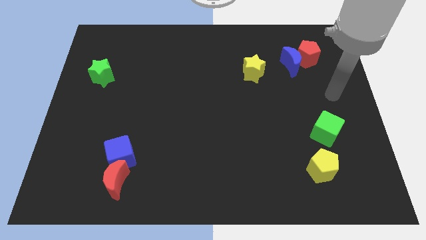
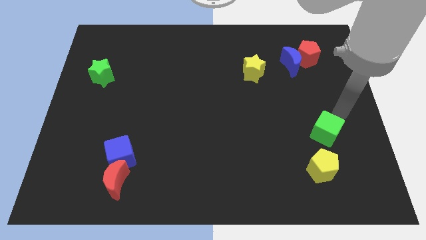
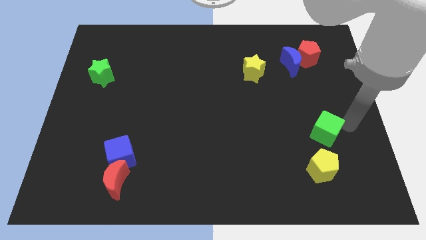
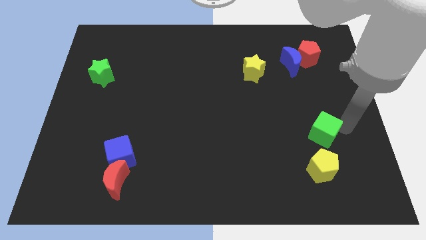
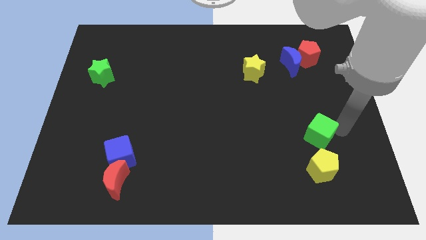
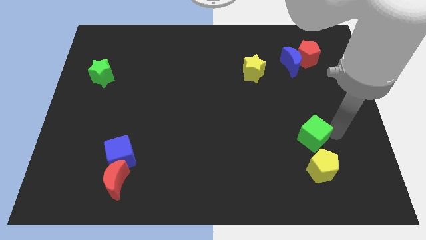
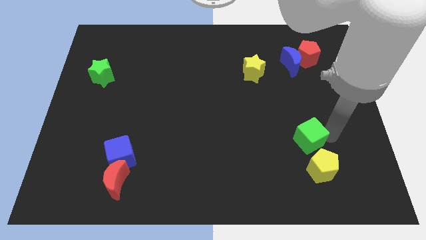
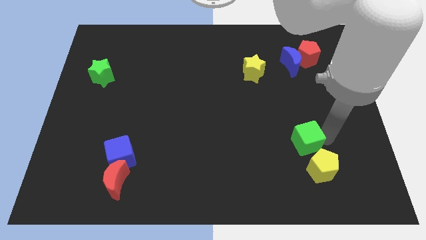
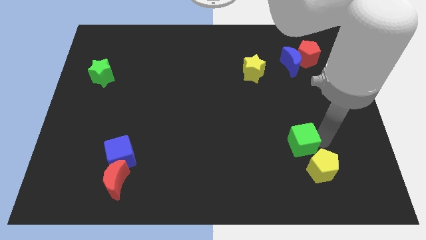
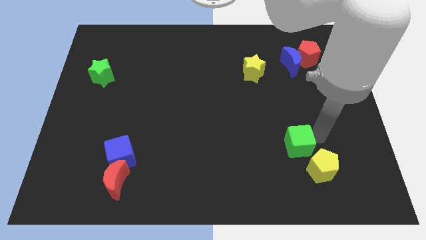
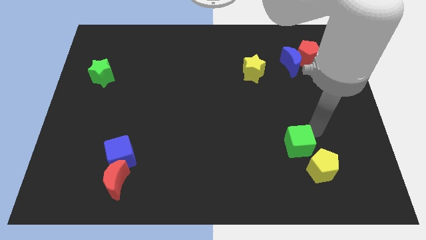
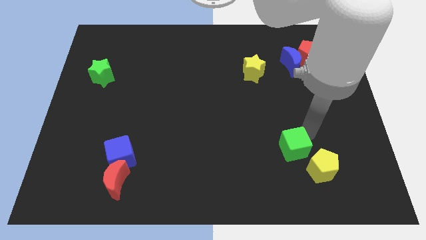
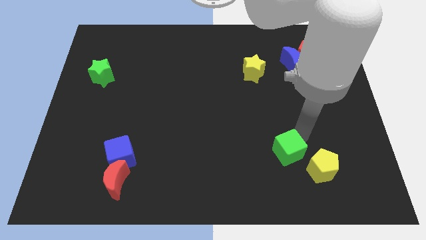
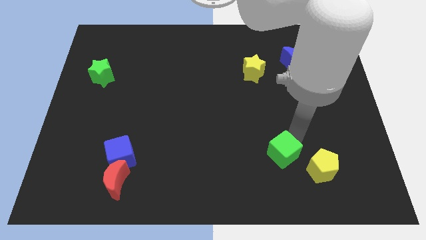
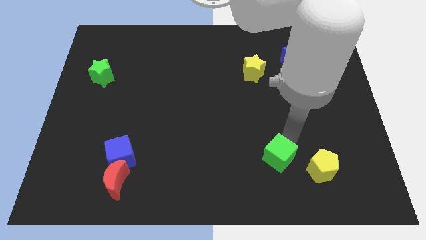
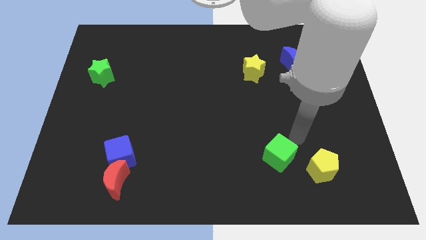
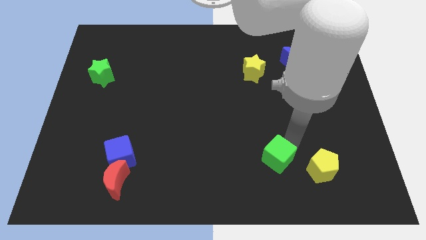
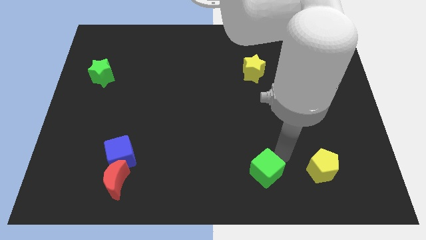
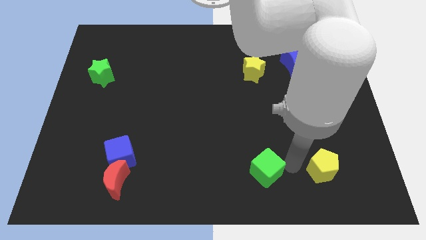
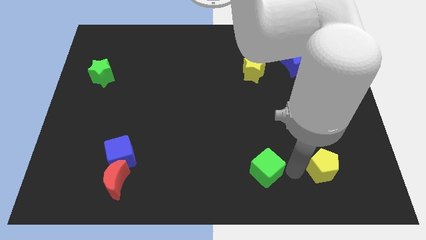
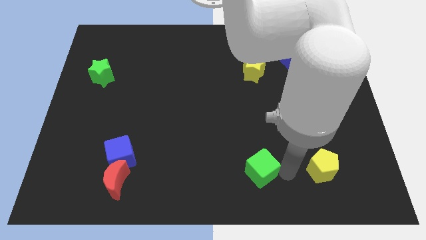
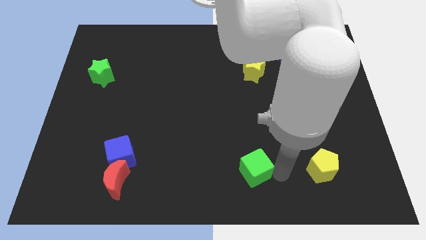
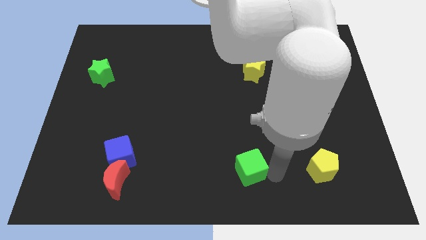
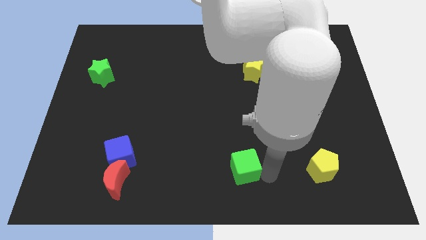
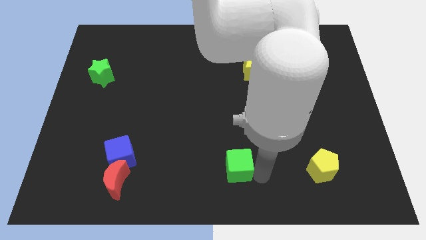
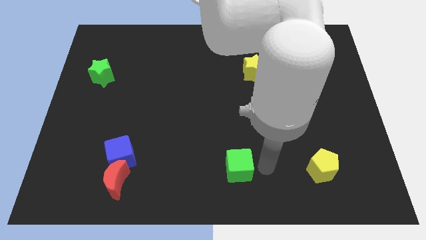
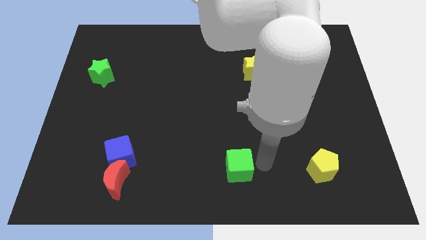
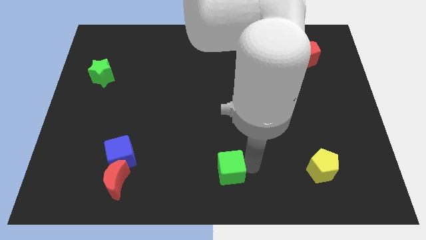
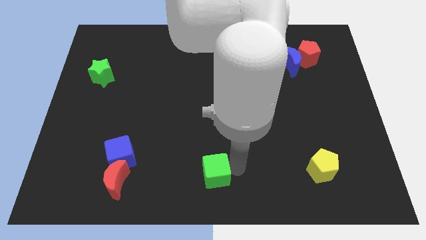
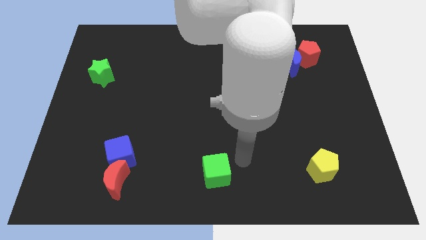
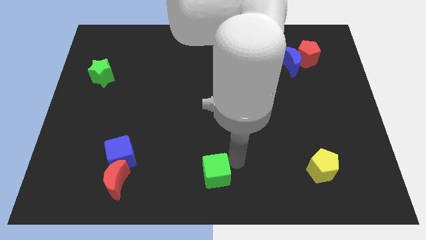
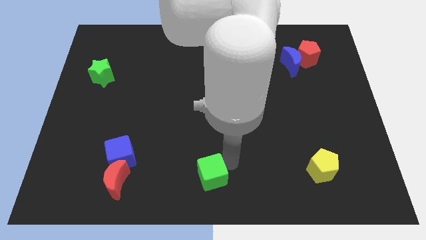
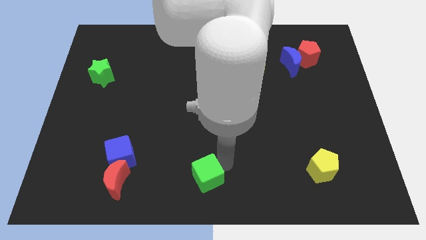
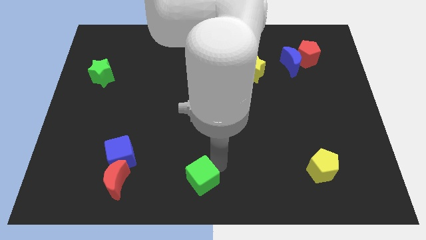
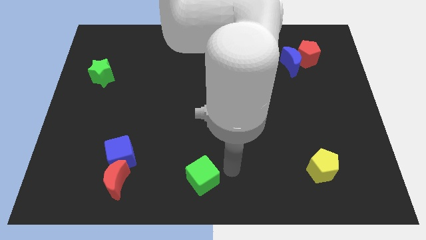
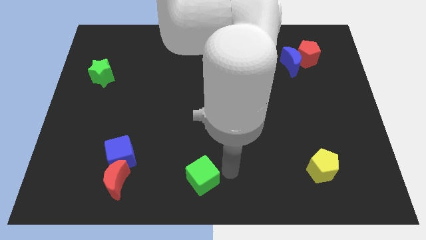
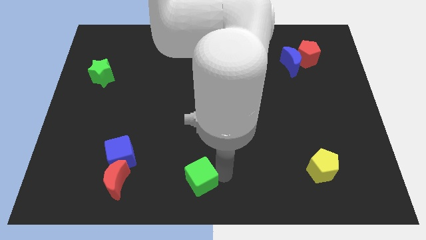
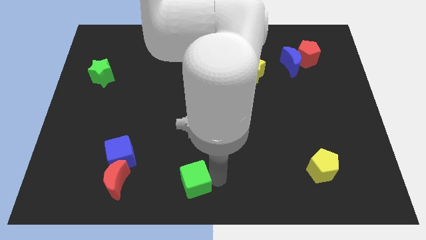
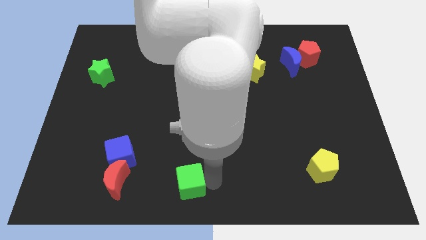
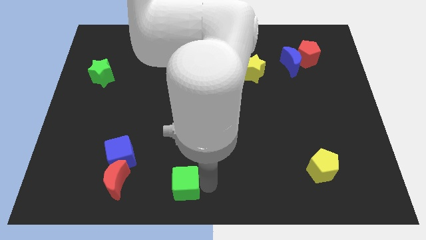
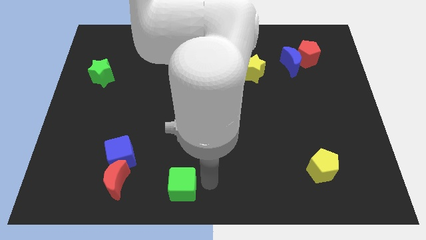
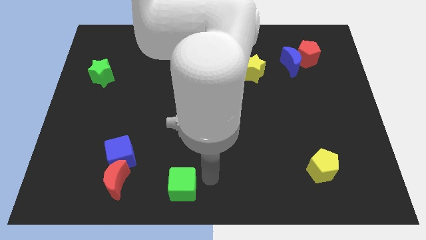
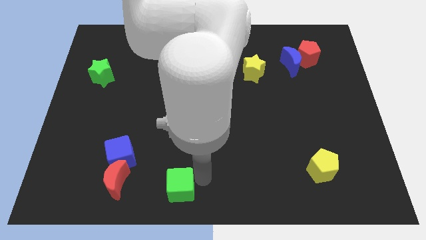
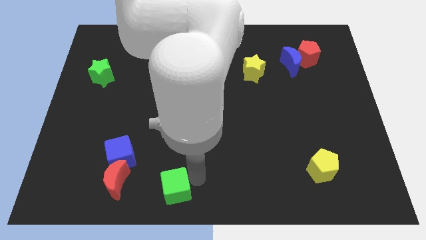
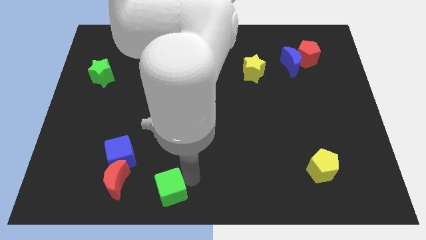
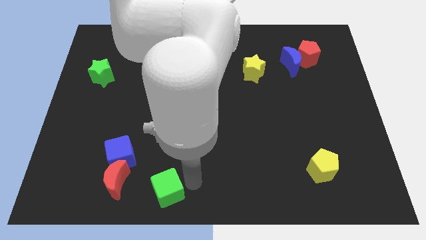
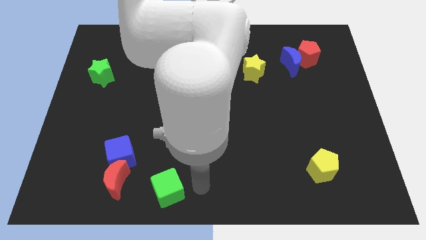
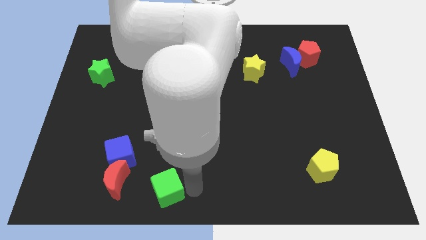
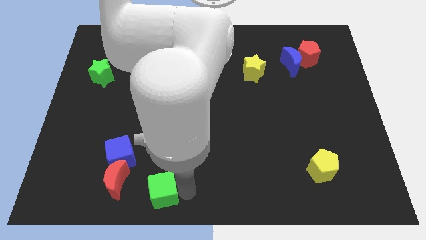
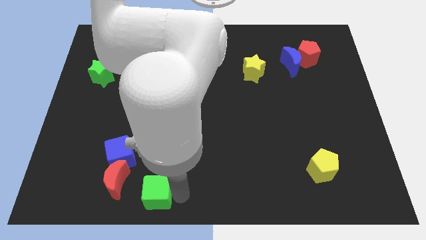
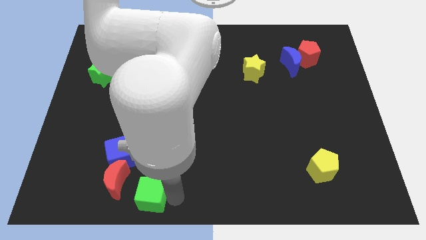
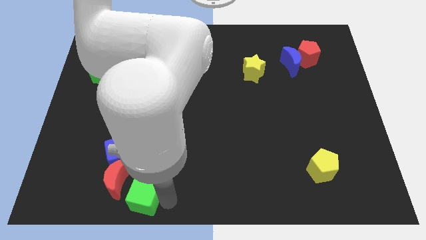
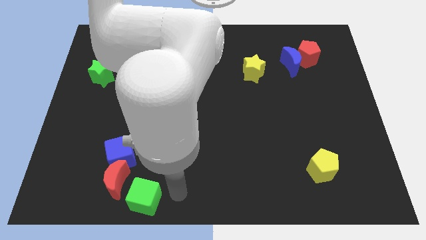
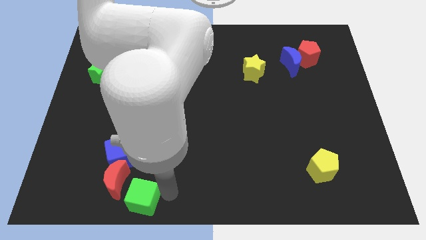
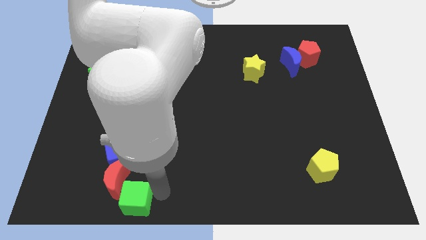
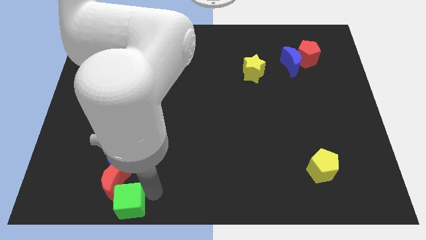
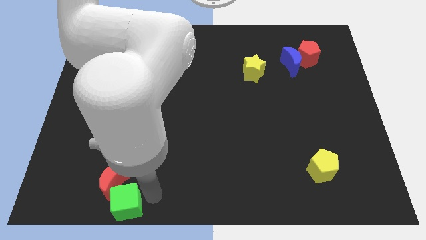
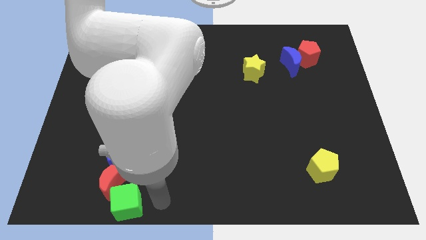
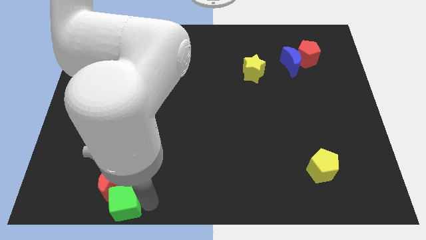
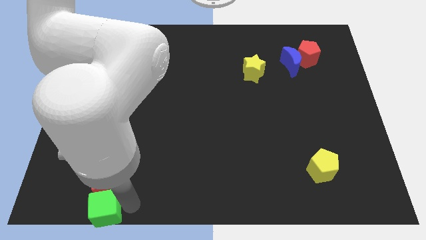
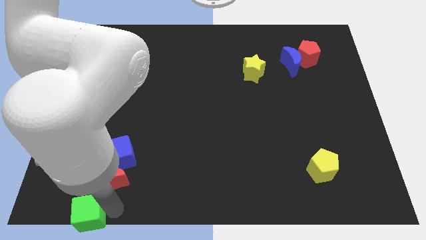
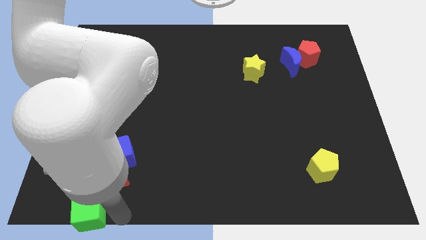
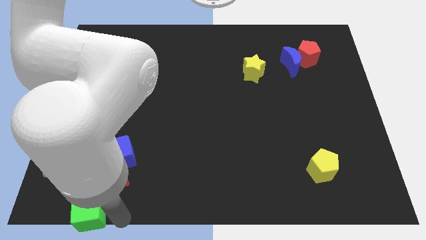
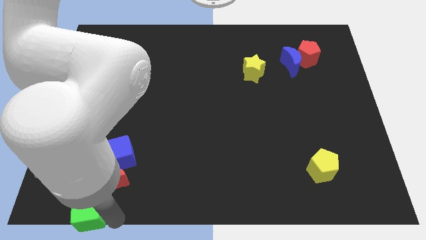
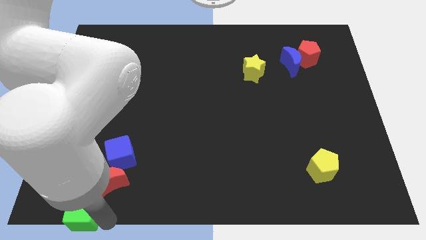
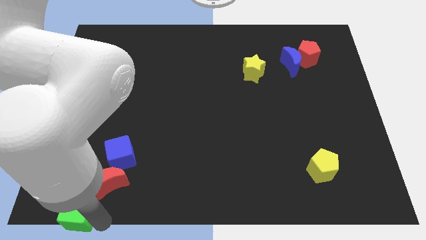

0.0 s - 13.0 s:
slide the green cube to the bottom left corner

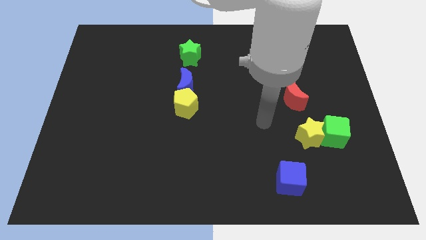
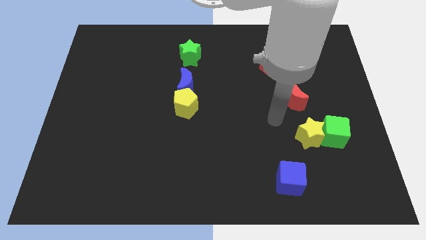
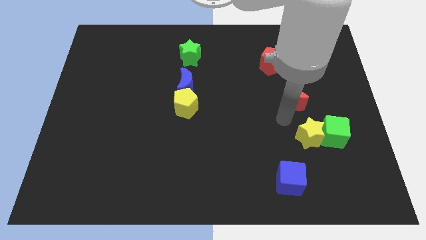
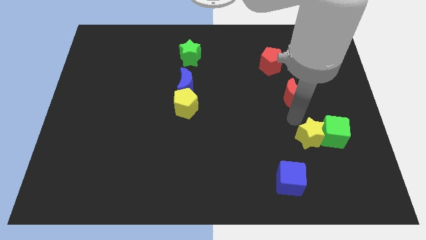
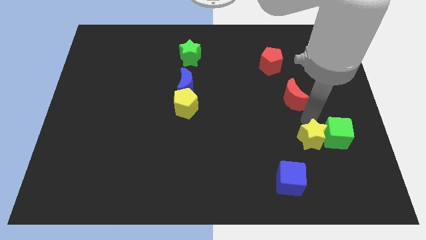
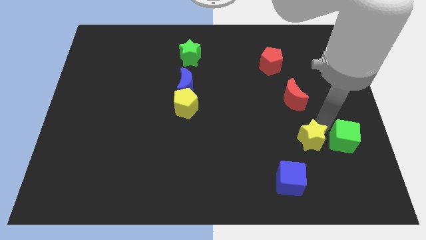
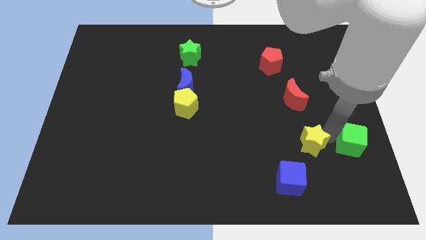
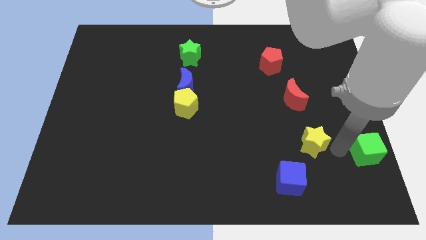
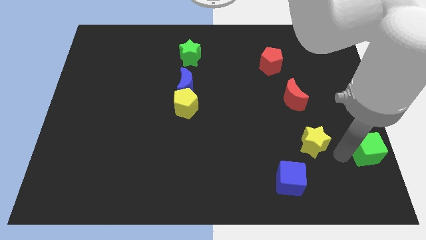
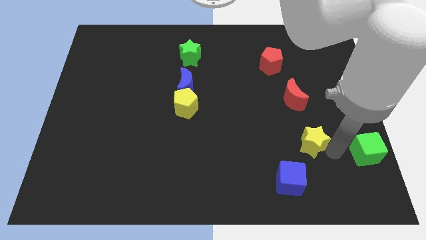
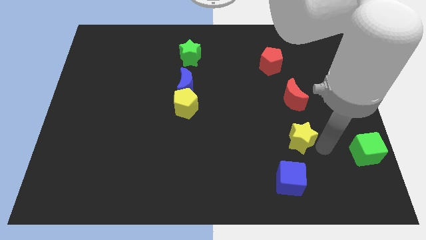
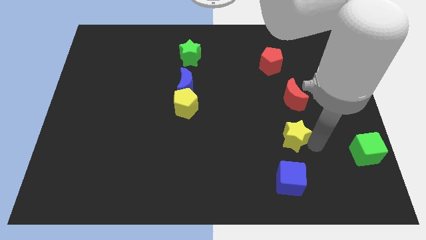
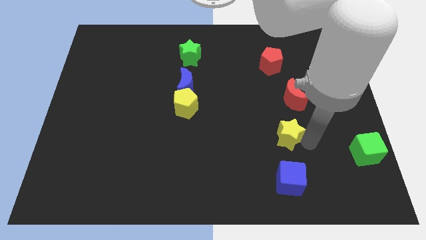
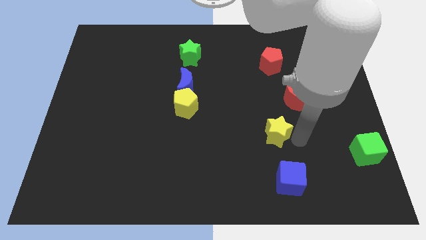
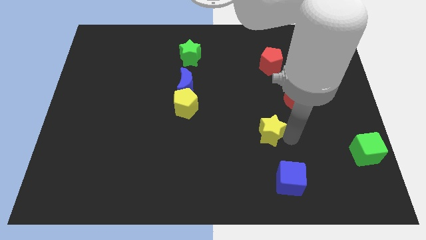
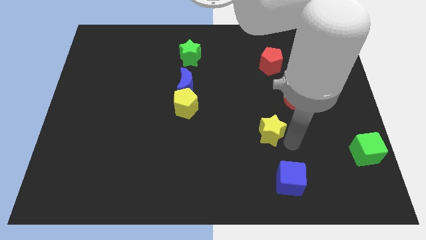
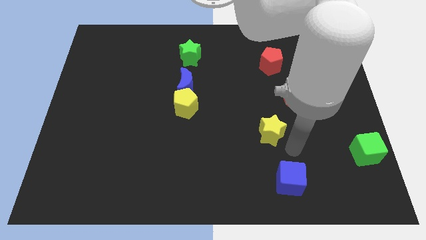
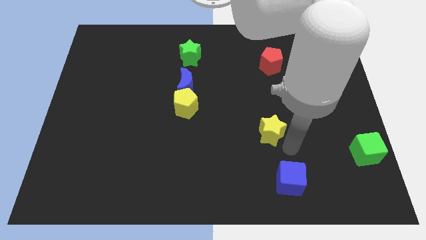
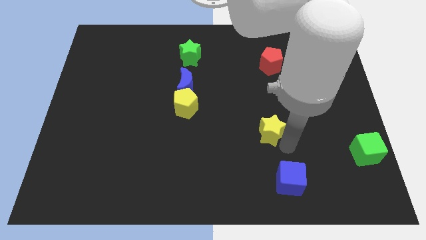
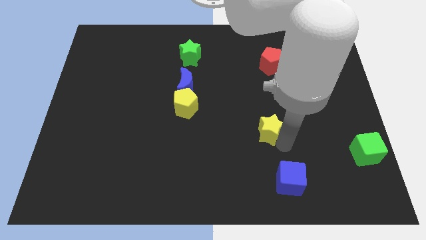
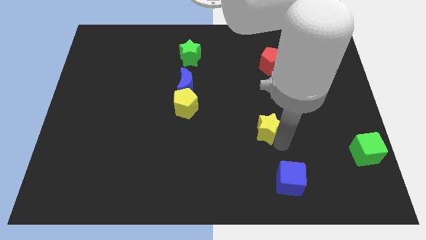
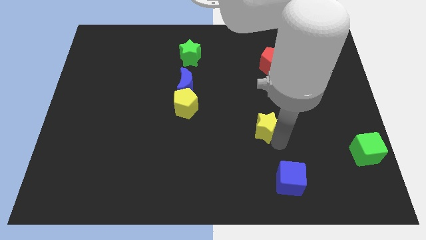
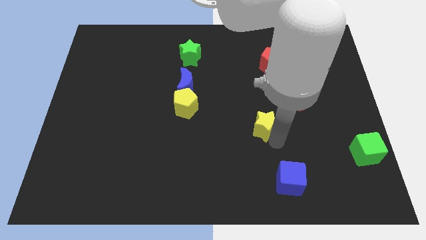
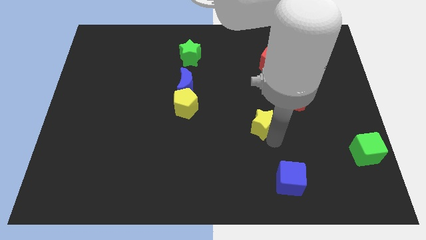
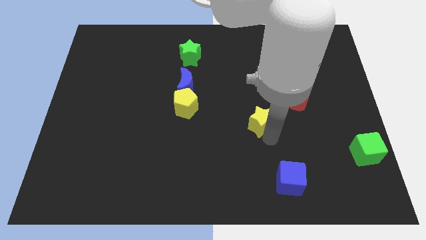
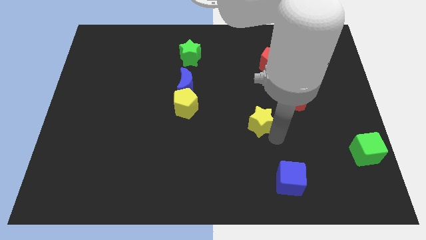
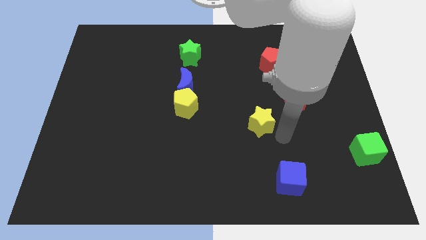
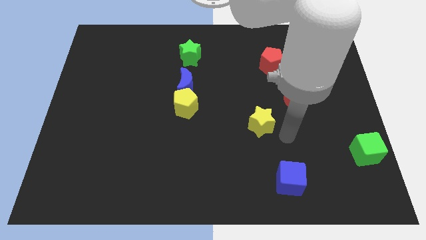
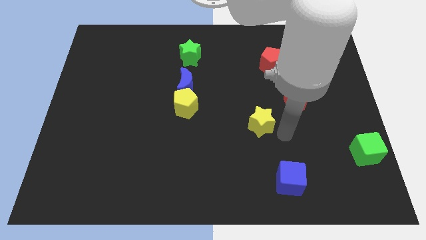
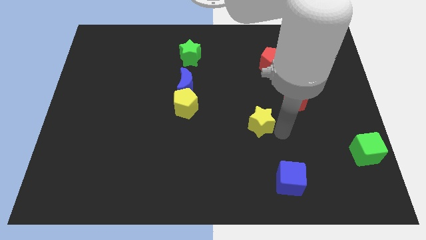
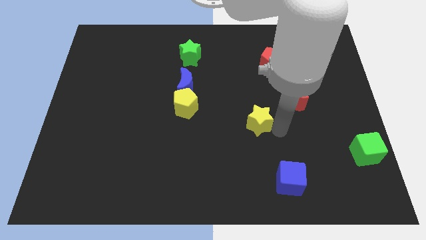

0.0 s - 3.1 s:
push the yellow star to the middle of the board
